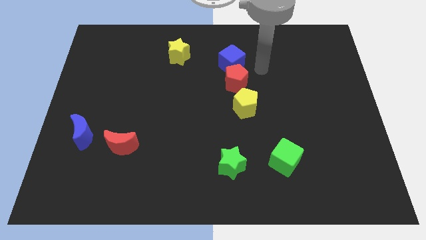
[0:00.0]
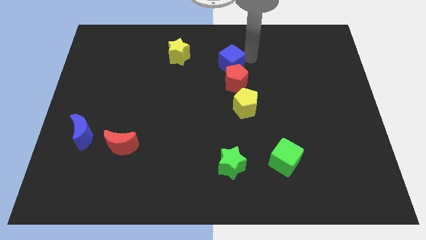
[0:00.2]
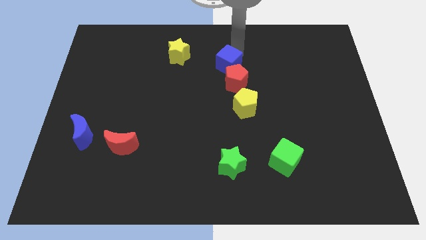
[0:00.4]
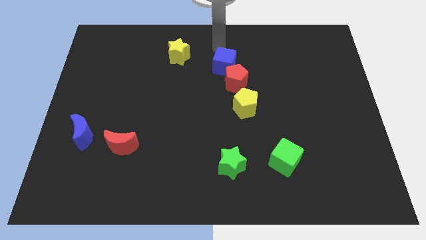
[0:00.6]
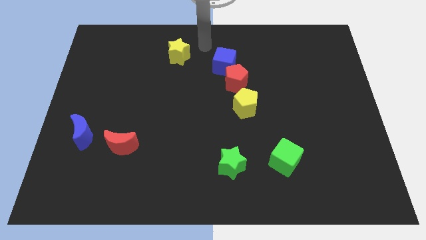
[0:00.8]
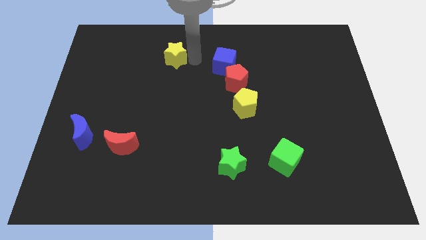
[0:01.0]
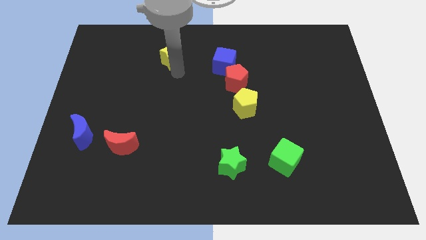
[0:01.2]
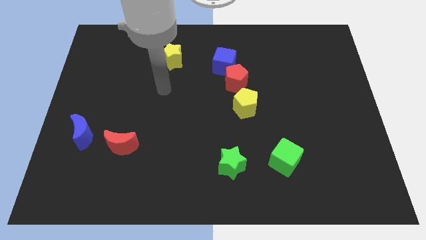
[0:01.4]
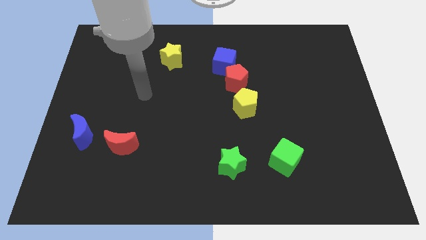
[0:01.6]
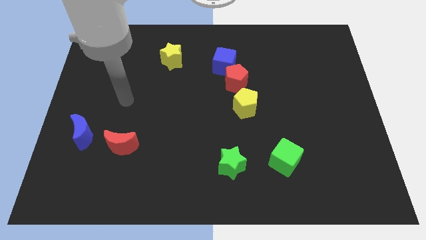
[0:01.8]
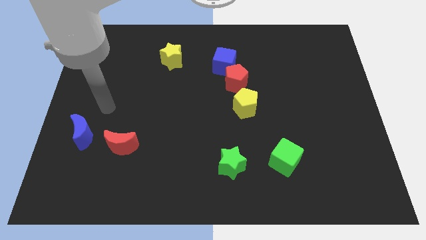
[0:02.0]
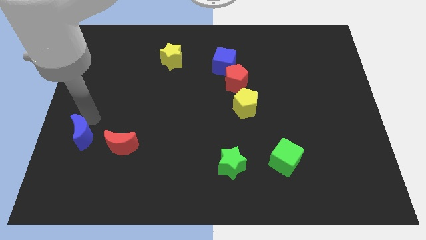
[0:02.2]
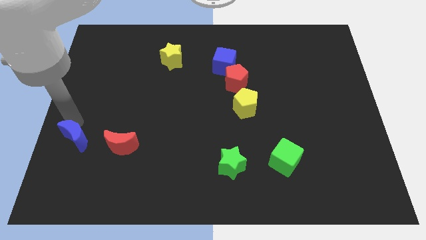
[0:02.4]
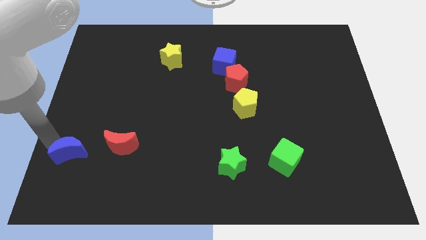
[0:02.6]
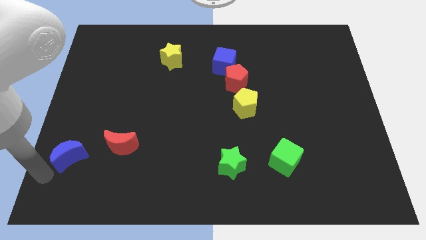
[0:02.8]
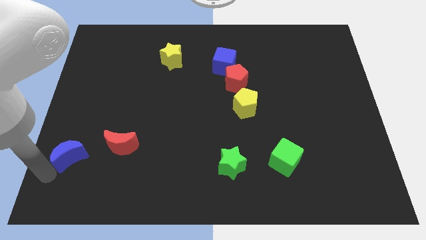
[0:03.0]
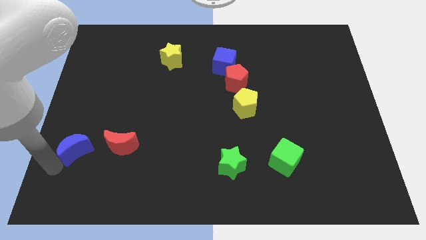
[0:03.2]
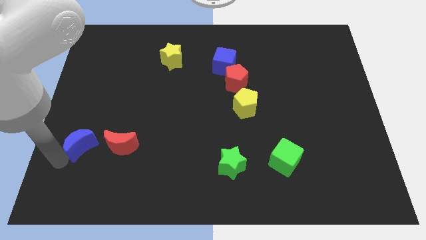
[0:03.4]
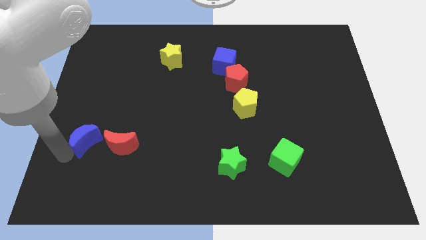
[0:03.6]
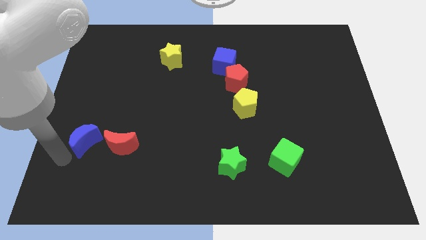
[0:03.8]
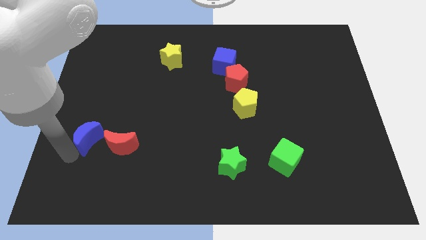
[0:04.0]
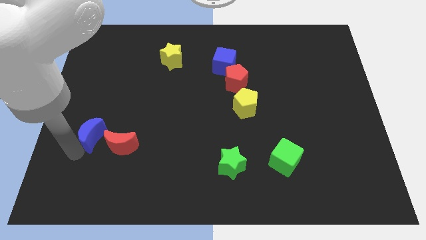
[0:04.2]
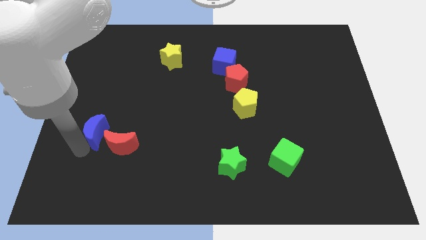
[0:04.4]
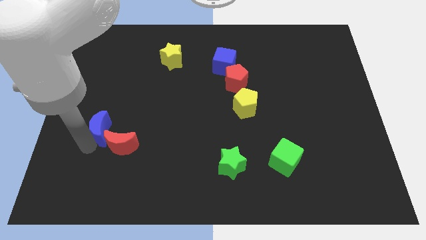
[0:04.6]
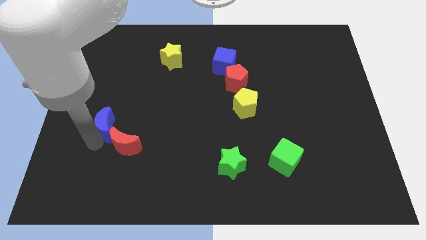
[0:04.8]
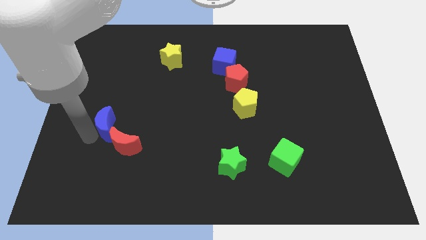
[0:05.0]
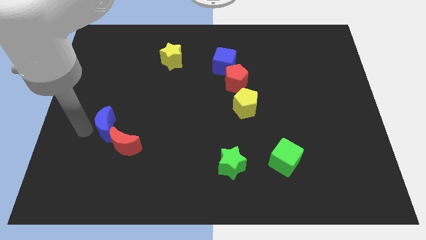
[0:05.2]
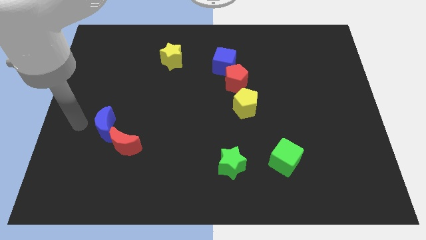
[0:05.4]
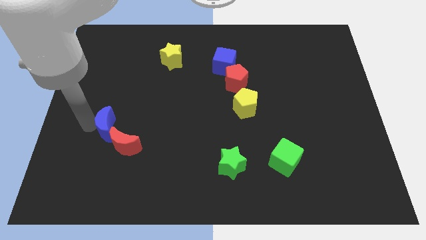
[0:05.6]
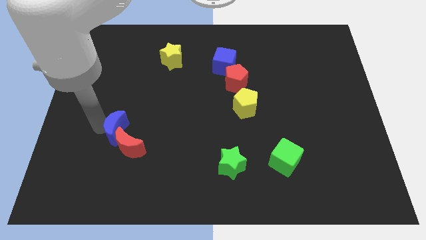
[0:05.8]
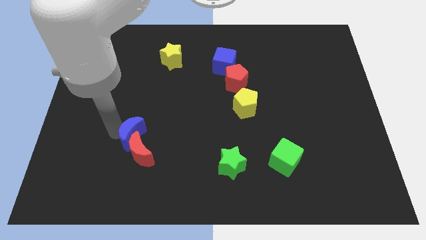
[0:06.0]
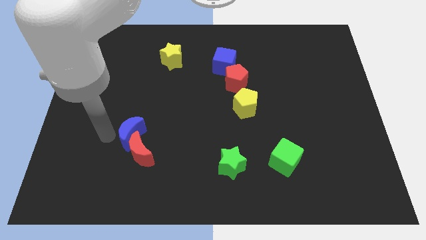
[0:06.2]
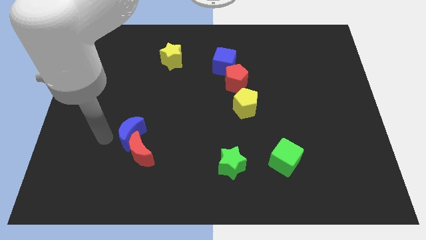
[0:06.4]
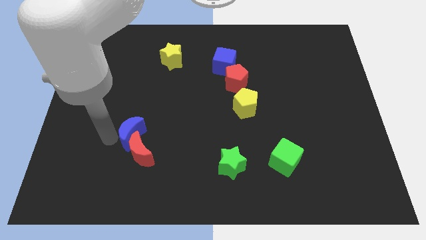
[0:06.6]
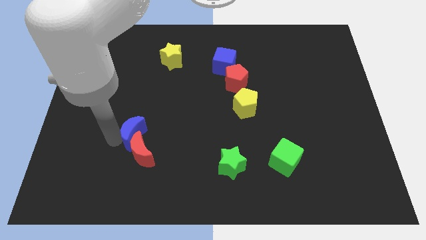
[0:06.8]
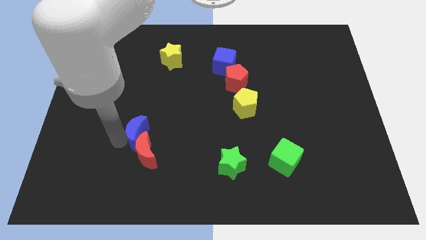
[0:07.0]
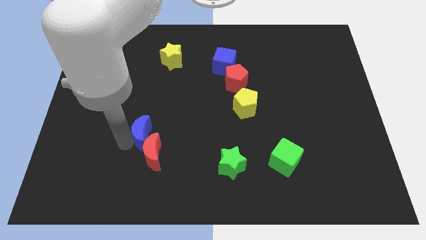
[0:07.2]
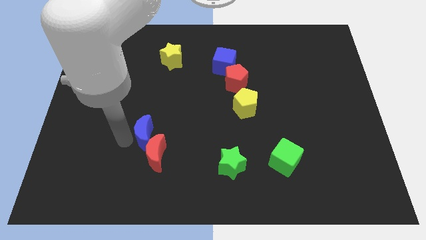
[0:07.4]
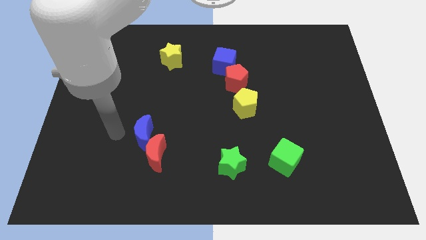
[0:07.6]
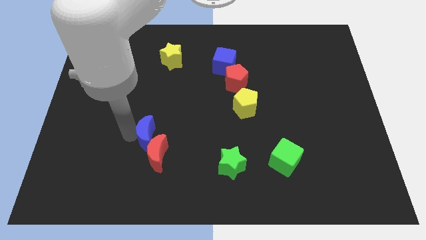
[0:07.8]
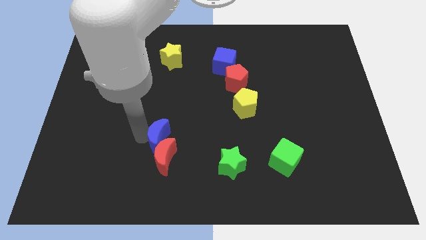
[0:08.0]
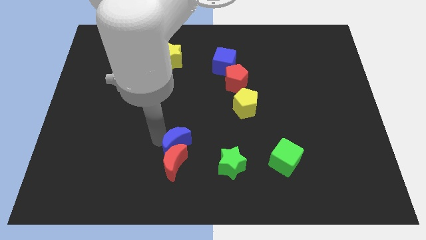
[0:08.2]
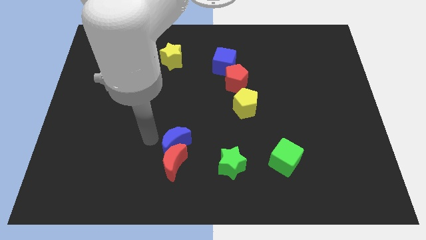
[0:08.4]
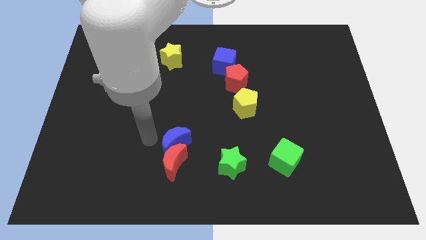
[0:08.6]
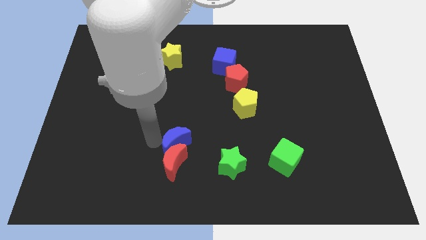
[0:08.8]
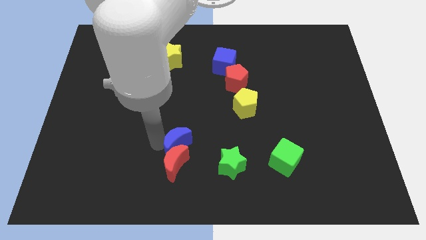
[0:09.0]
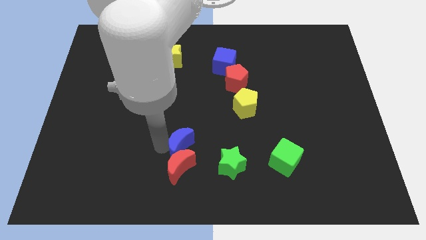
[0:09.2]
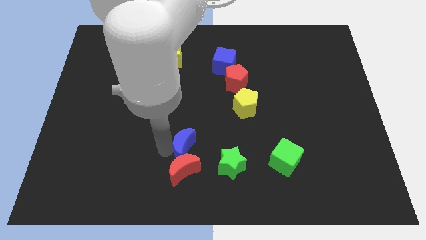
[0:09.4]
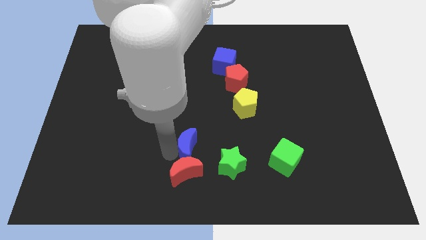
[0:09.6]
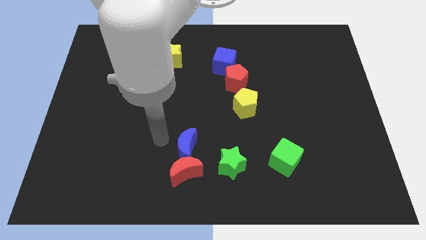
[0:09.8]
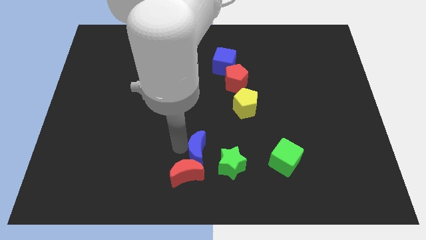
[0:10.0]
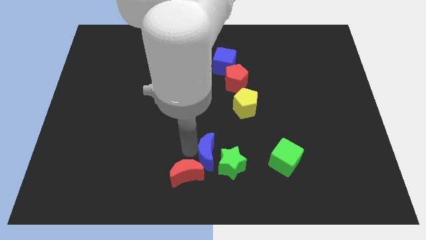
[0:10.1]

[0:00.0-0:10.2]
slide the blue moon next to the green star

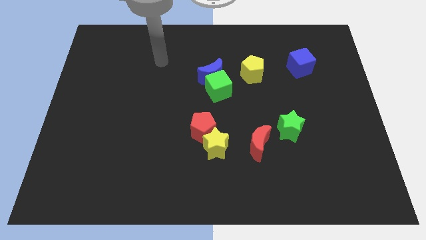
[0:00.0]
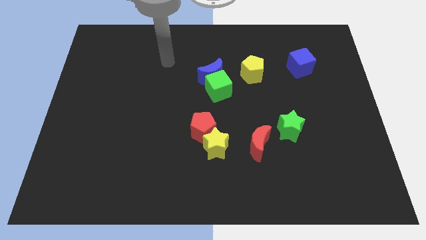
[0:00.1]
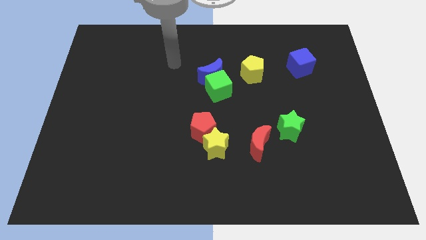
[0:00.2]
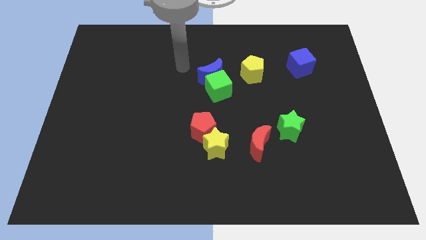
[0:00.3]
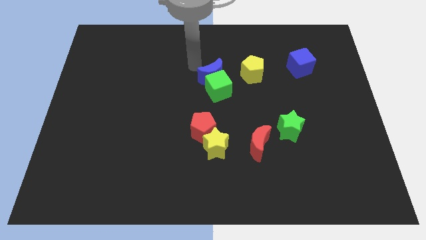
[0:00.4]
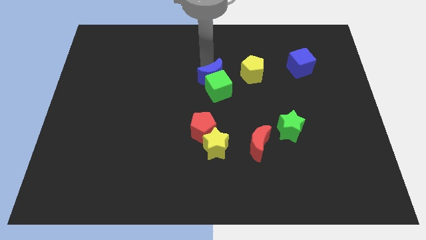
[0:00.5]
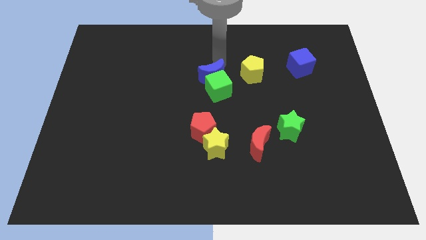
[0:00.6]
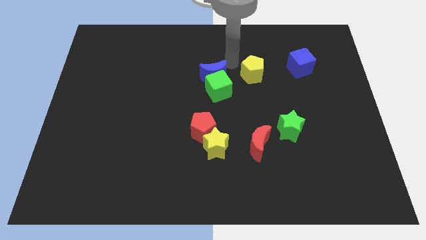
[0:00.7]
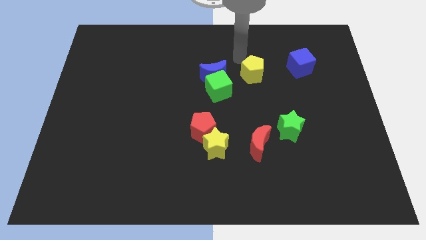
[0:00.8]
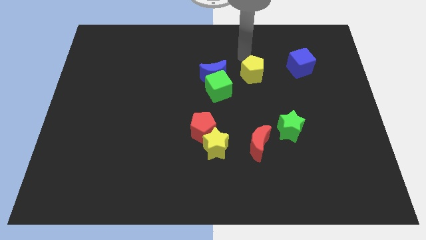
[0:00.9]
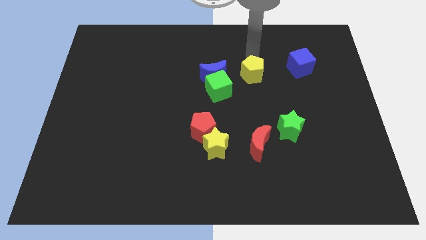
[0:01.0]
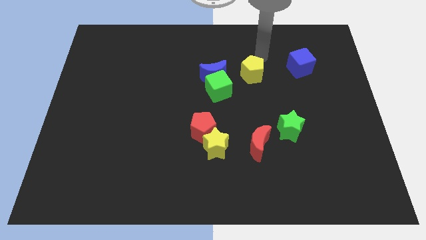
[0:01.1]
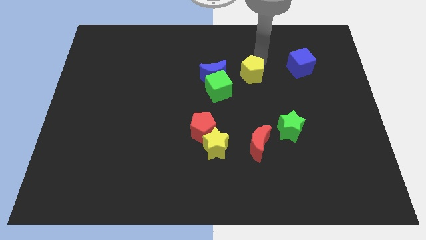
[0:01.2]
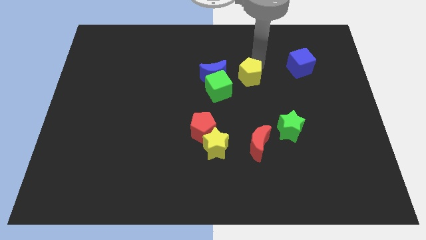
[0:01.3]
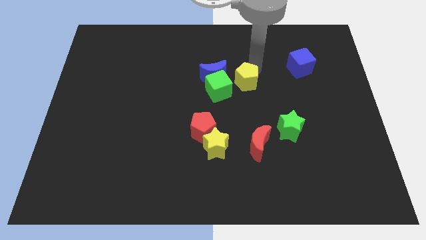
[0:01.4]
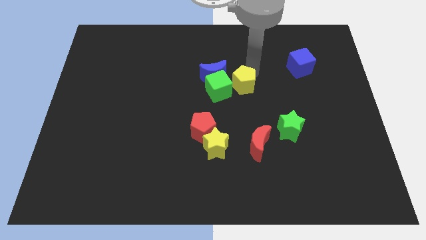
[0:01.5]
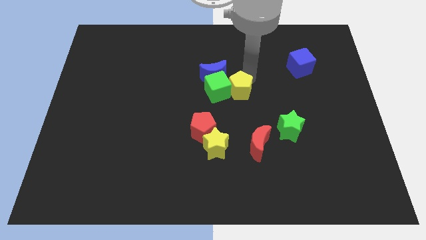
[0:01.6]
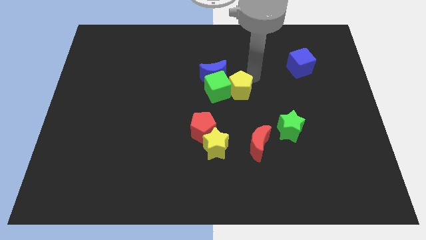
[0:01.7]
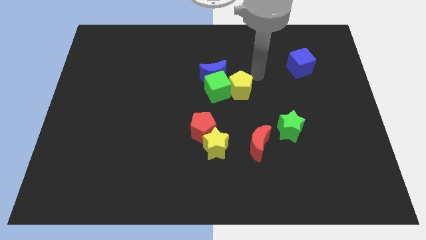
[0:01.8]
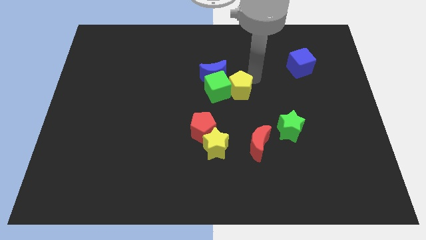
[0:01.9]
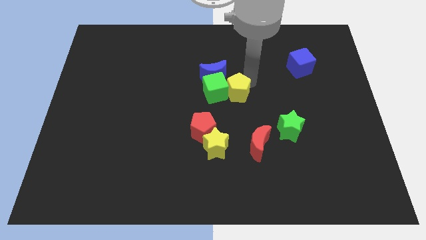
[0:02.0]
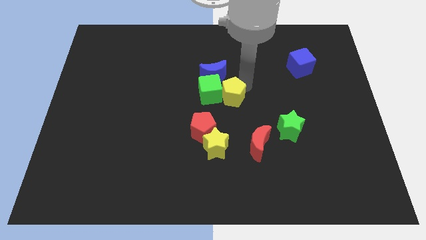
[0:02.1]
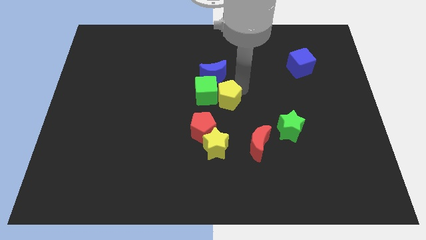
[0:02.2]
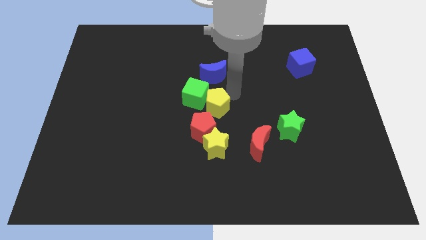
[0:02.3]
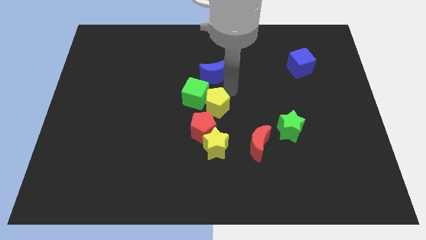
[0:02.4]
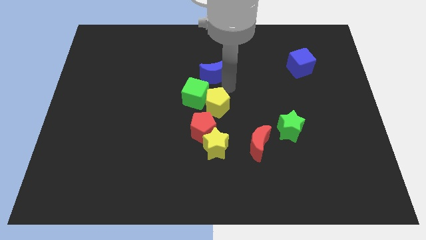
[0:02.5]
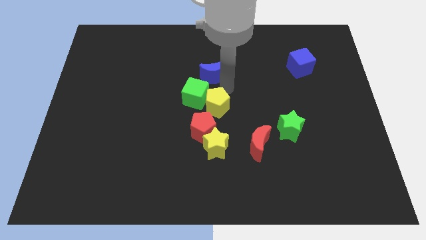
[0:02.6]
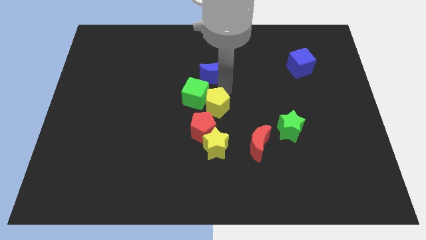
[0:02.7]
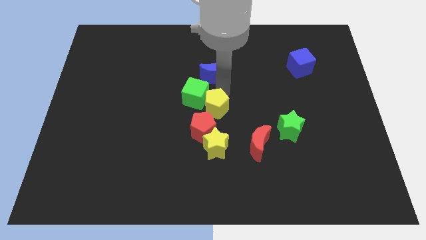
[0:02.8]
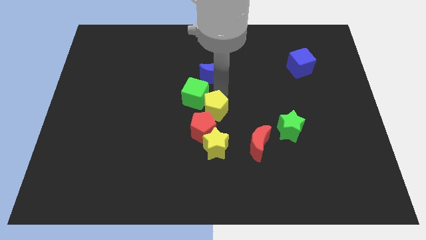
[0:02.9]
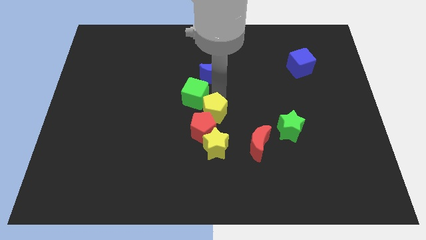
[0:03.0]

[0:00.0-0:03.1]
slide the yellow pentagon to the red pentagon
